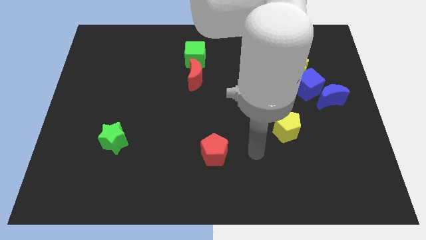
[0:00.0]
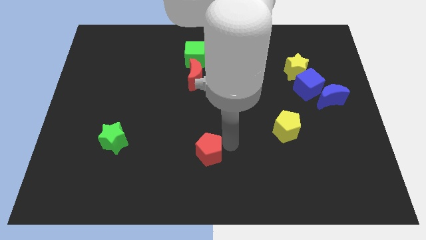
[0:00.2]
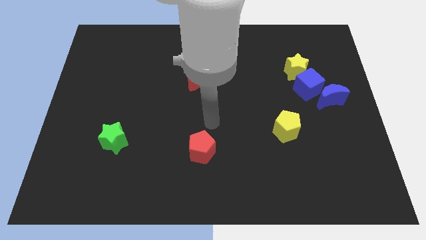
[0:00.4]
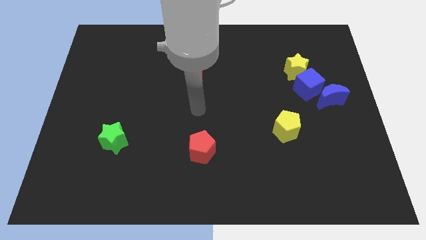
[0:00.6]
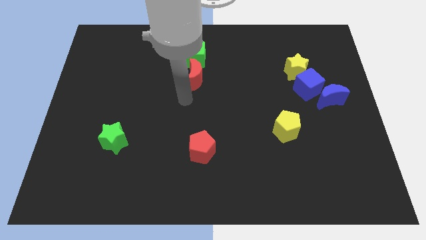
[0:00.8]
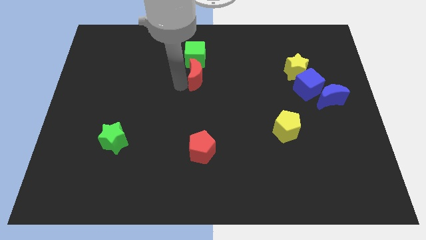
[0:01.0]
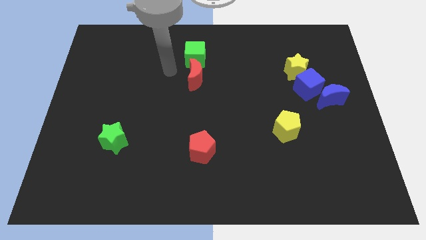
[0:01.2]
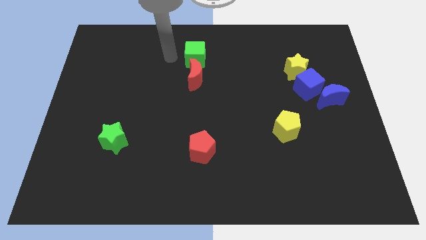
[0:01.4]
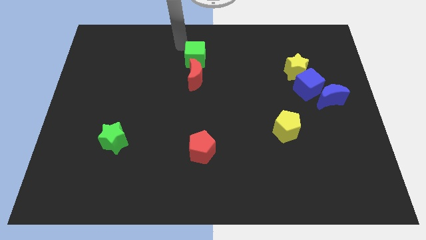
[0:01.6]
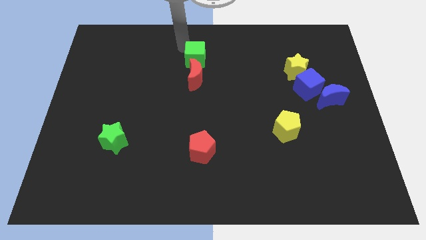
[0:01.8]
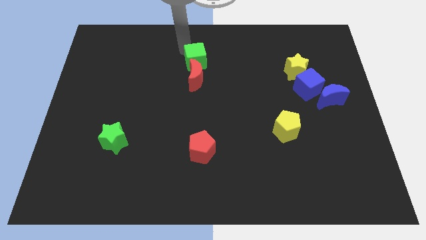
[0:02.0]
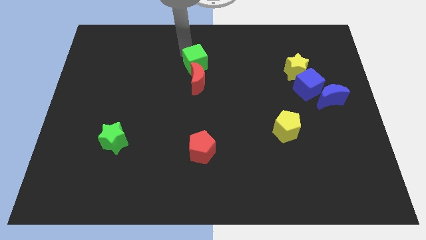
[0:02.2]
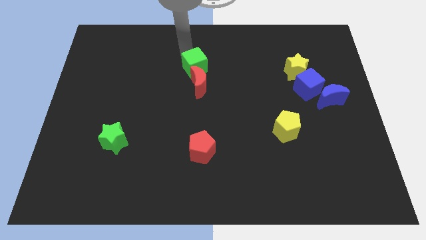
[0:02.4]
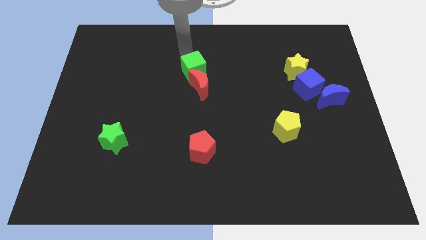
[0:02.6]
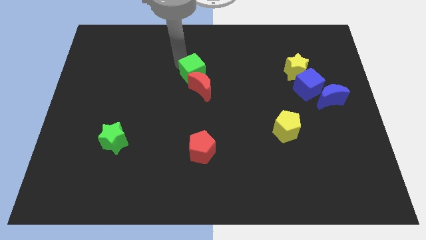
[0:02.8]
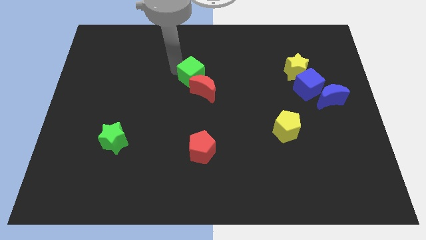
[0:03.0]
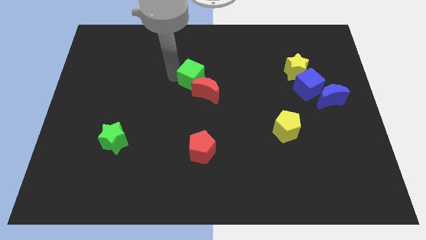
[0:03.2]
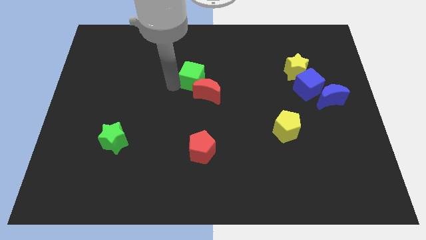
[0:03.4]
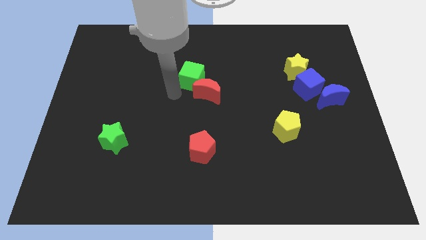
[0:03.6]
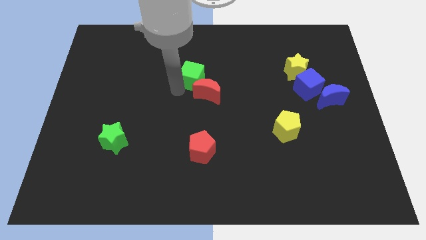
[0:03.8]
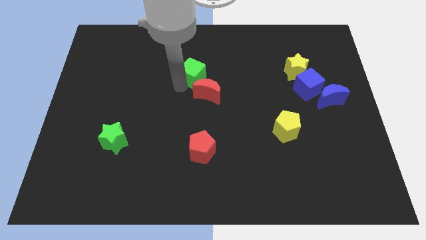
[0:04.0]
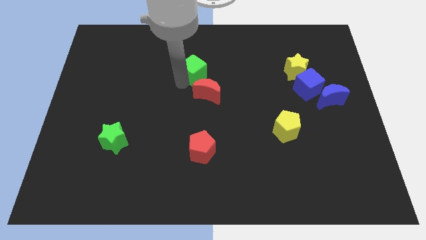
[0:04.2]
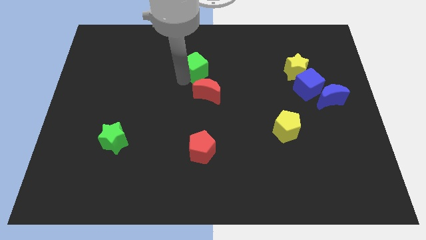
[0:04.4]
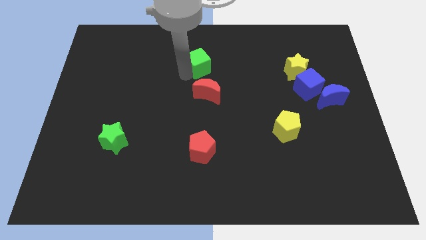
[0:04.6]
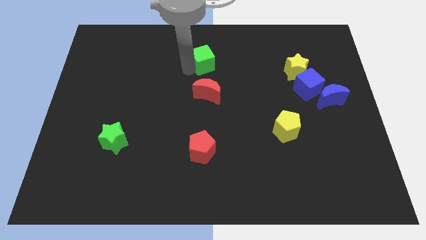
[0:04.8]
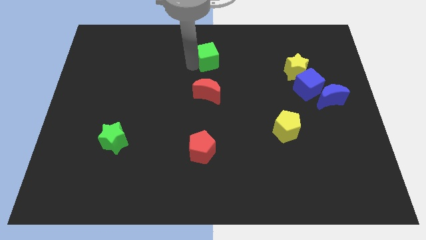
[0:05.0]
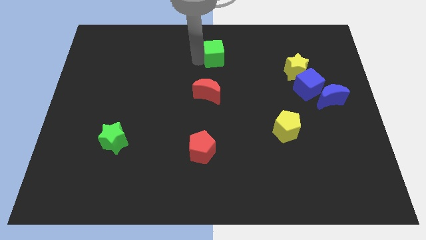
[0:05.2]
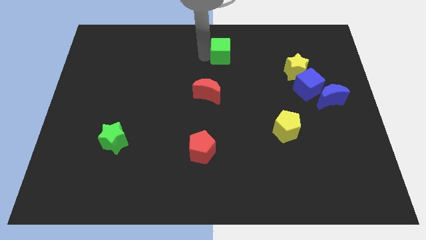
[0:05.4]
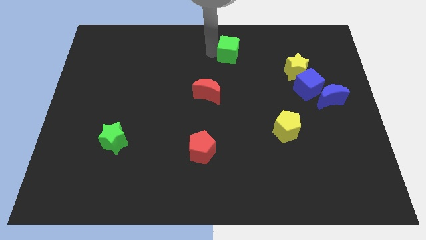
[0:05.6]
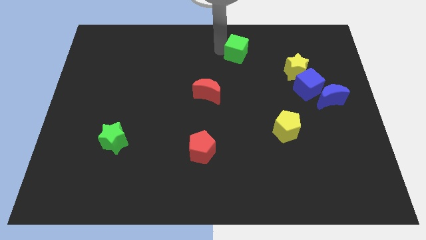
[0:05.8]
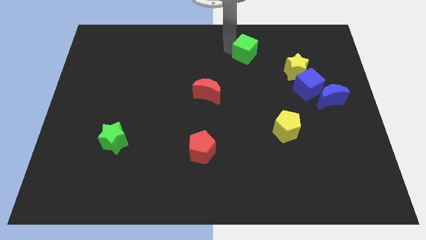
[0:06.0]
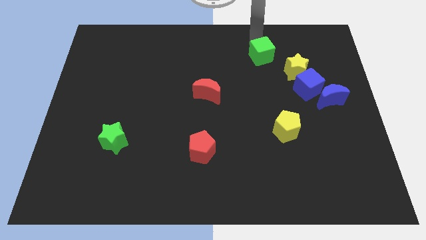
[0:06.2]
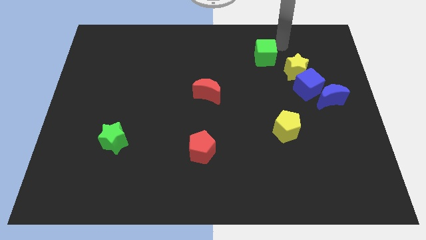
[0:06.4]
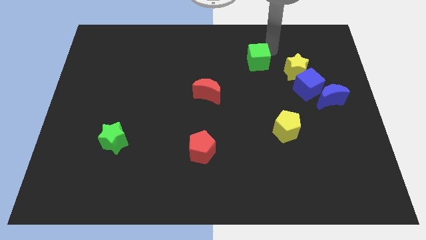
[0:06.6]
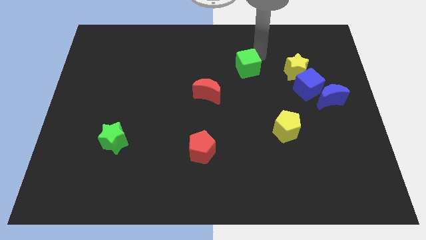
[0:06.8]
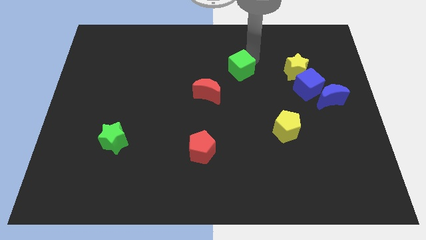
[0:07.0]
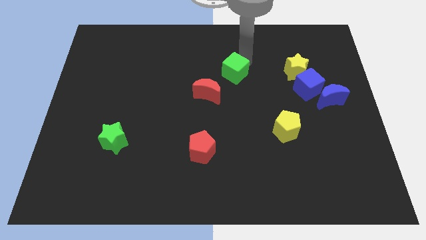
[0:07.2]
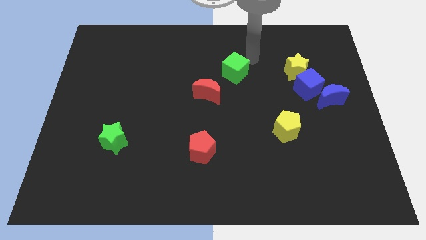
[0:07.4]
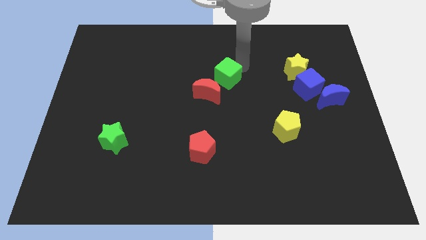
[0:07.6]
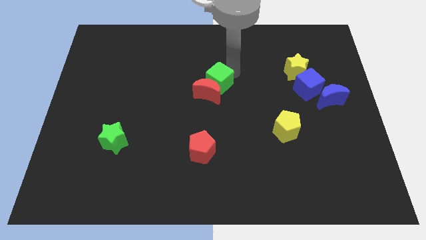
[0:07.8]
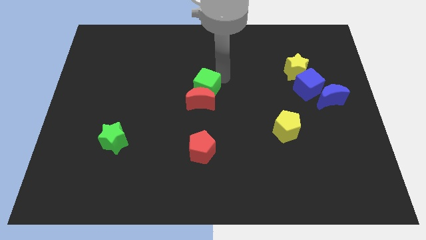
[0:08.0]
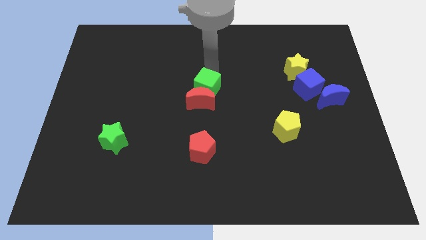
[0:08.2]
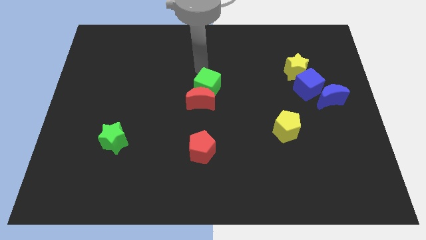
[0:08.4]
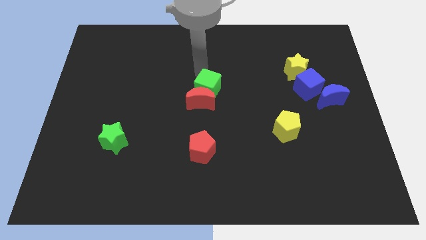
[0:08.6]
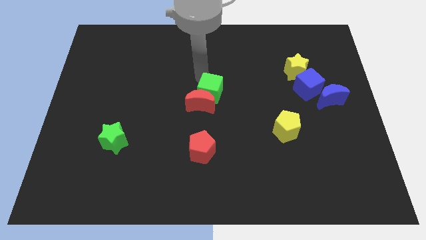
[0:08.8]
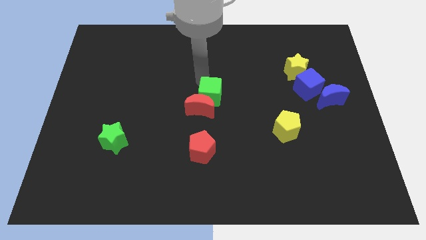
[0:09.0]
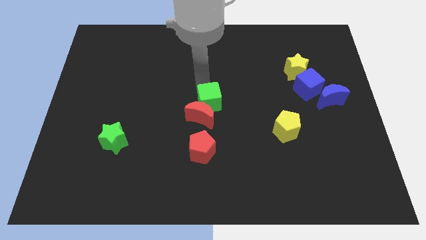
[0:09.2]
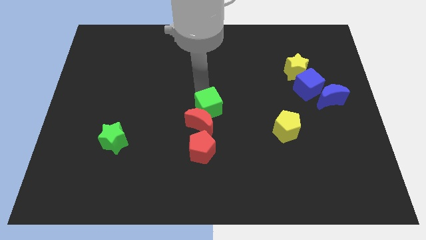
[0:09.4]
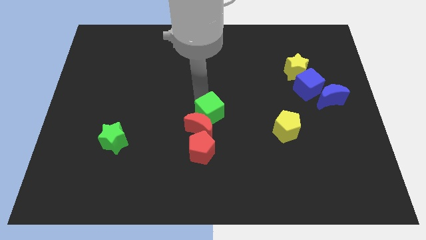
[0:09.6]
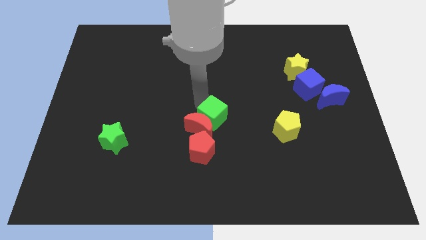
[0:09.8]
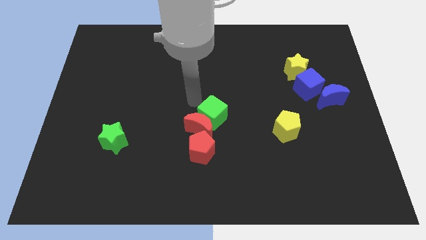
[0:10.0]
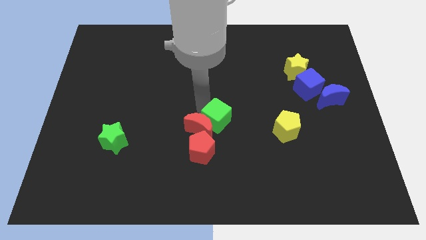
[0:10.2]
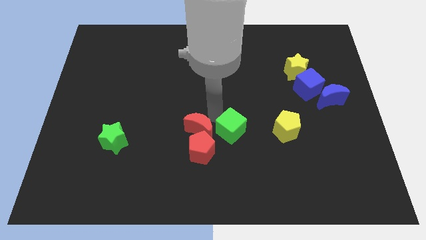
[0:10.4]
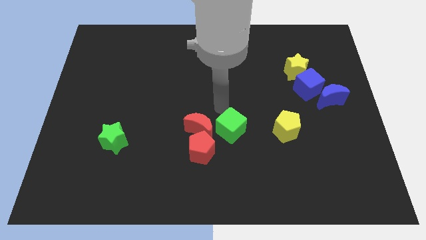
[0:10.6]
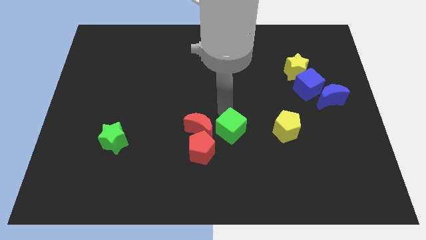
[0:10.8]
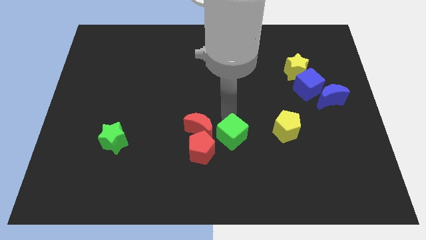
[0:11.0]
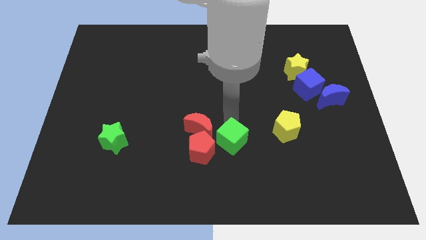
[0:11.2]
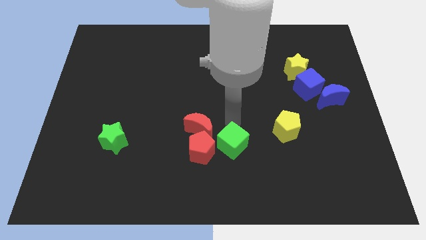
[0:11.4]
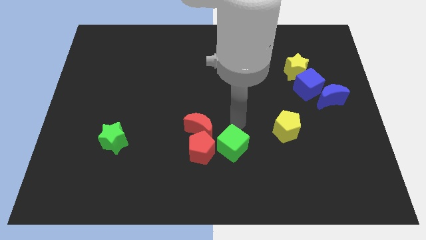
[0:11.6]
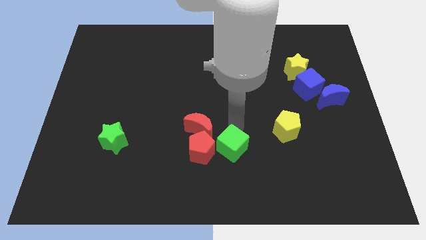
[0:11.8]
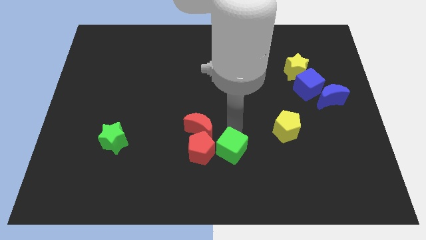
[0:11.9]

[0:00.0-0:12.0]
move the green cube to the bottom right of the red pentagon

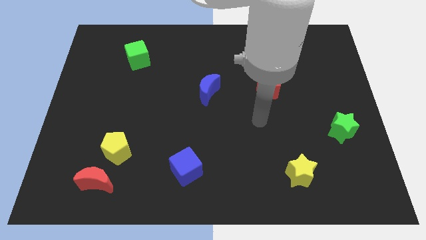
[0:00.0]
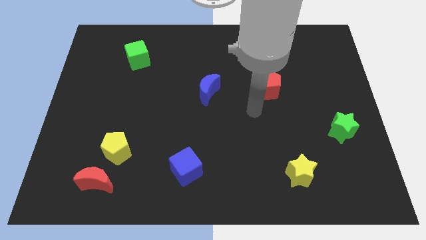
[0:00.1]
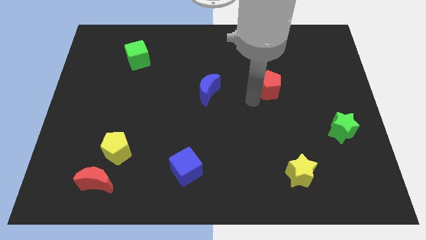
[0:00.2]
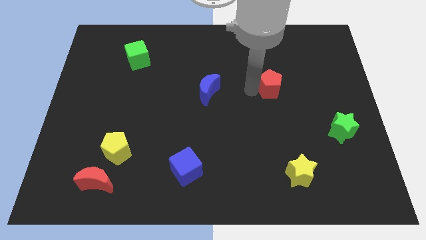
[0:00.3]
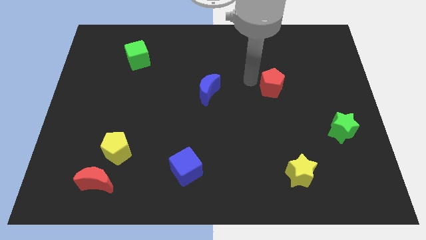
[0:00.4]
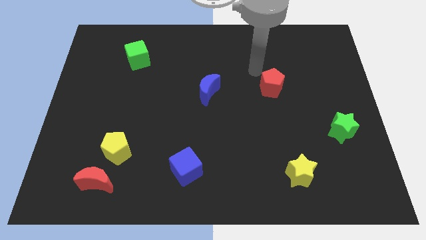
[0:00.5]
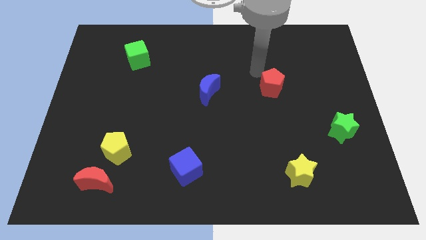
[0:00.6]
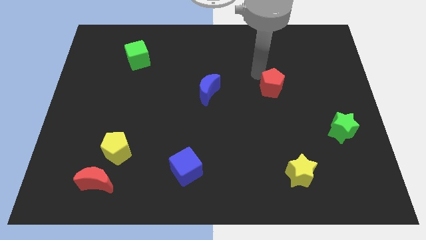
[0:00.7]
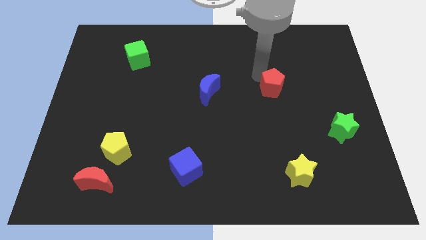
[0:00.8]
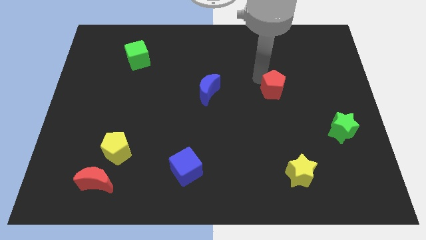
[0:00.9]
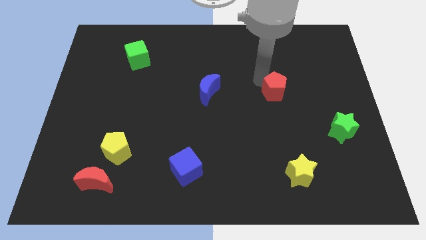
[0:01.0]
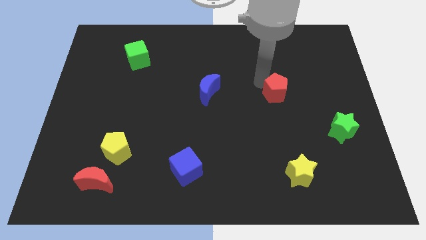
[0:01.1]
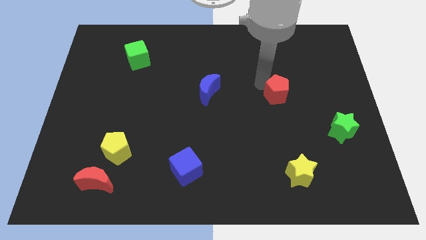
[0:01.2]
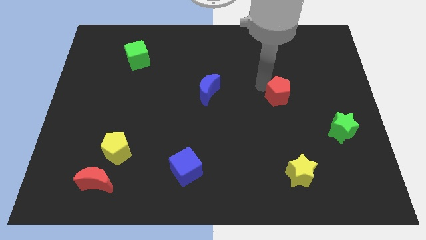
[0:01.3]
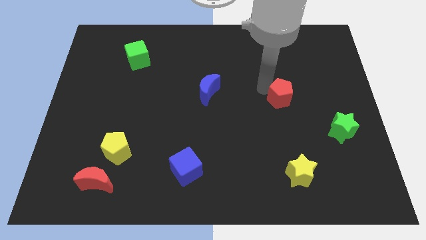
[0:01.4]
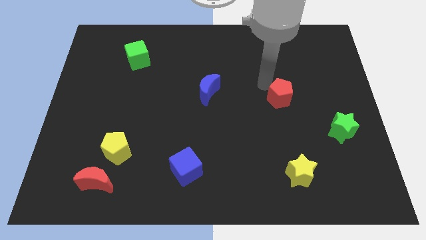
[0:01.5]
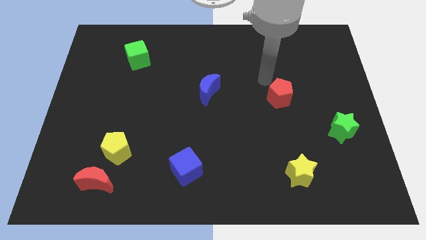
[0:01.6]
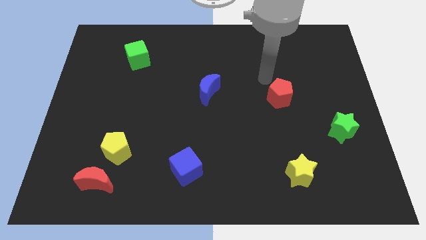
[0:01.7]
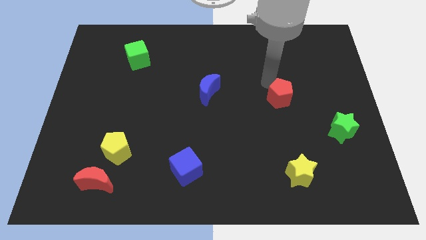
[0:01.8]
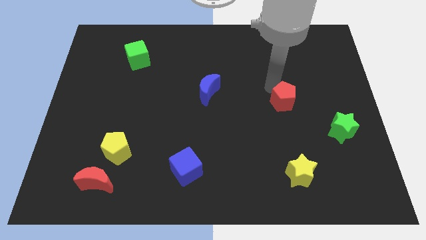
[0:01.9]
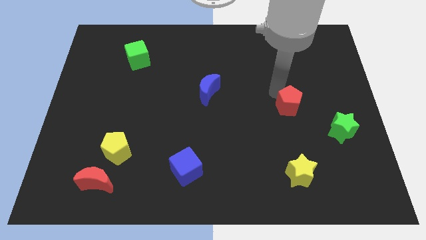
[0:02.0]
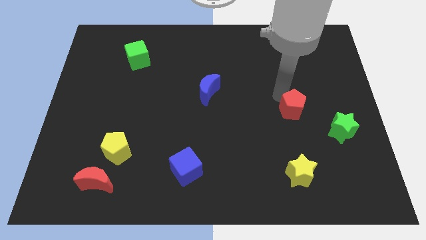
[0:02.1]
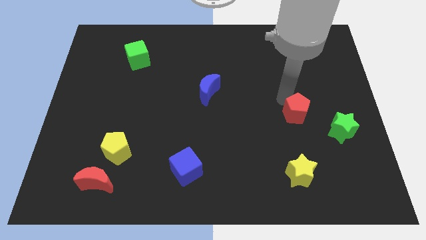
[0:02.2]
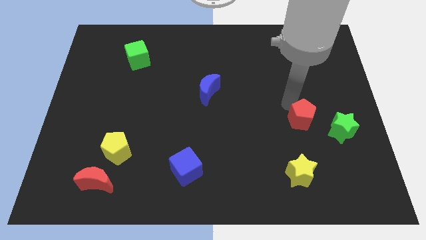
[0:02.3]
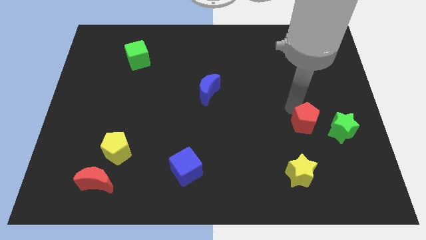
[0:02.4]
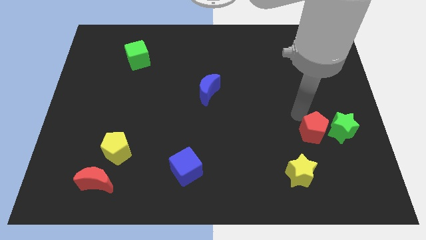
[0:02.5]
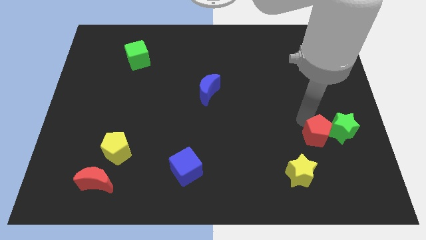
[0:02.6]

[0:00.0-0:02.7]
put the red pentagon diagonally up and to the right of the yellow star
